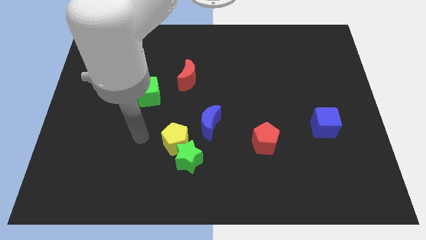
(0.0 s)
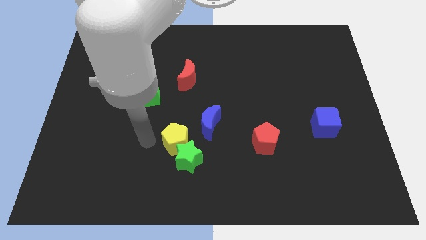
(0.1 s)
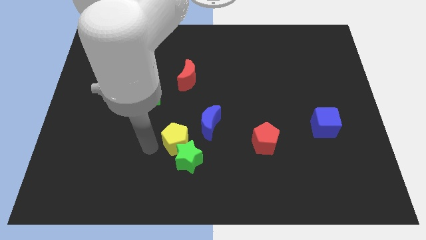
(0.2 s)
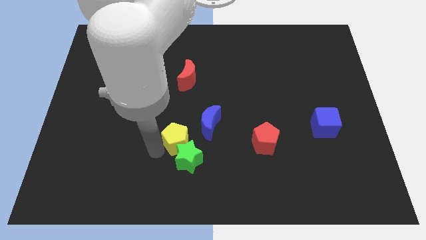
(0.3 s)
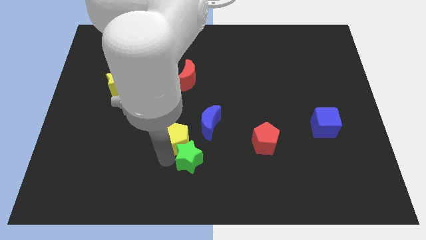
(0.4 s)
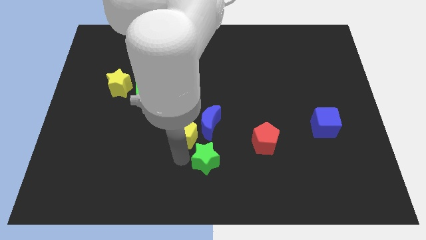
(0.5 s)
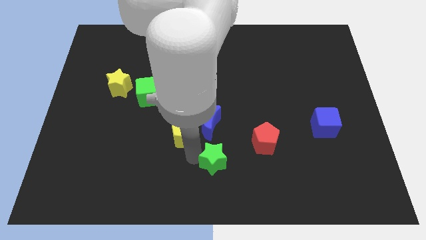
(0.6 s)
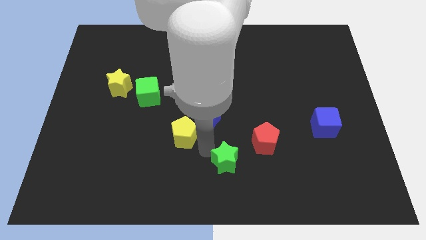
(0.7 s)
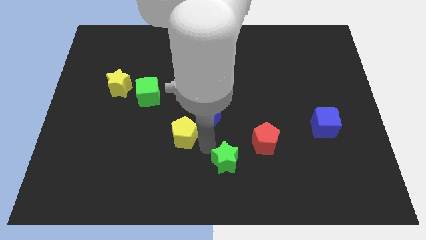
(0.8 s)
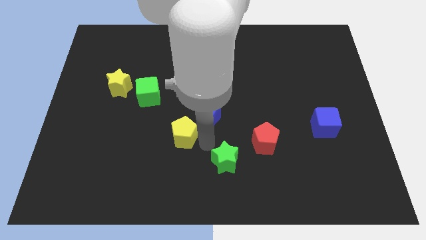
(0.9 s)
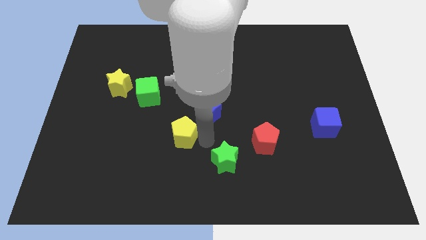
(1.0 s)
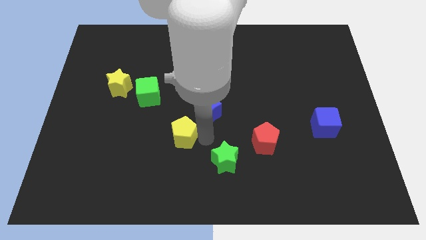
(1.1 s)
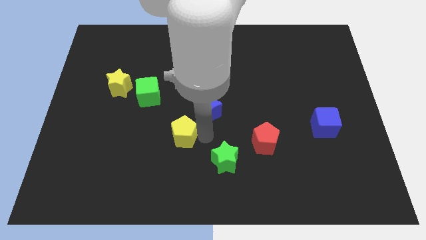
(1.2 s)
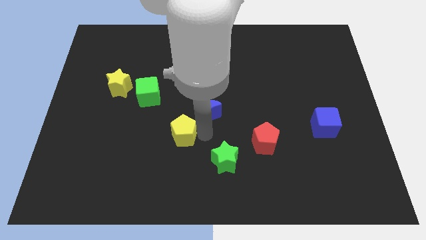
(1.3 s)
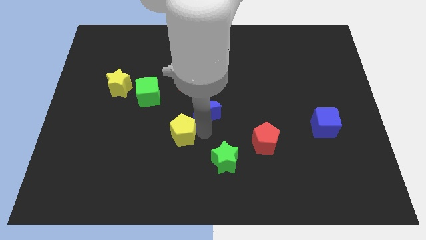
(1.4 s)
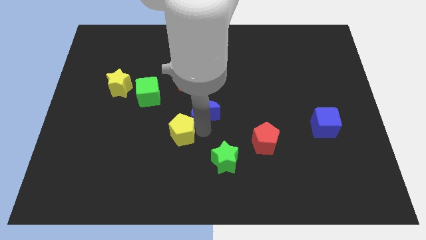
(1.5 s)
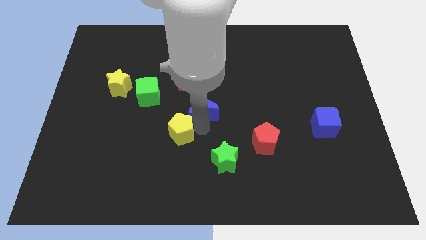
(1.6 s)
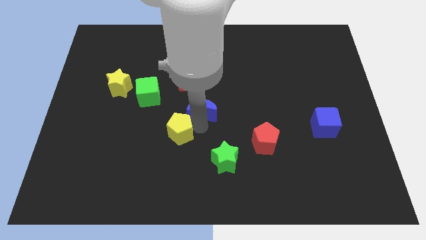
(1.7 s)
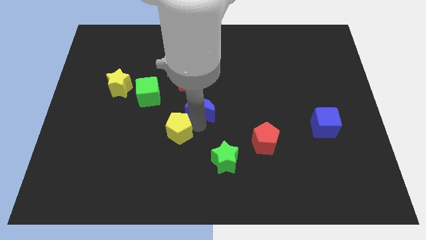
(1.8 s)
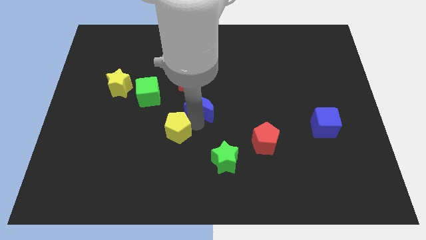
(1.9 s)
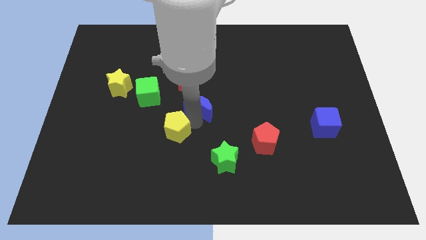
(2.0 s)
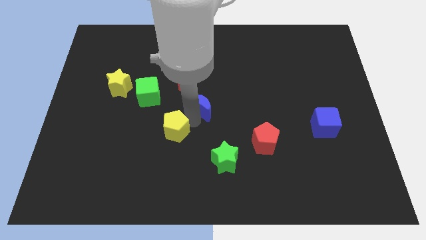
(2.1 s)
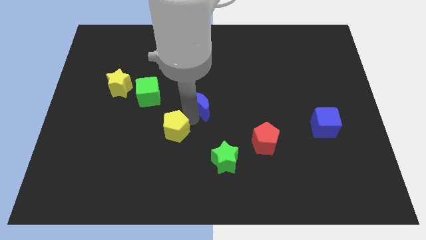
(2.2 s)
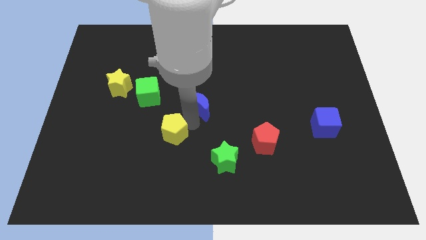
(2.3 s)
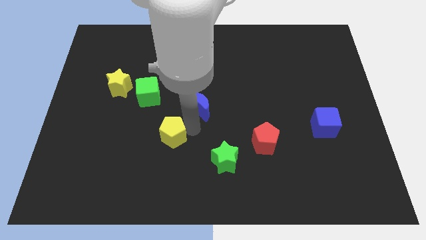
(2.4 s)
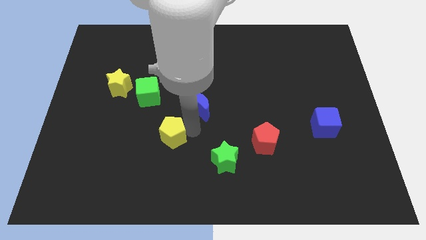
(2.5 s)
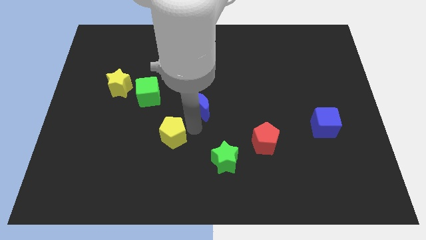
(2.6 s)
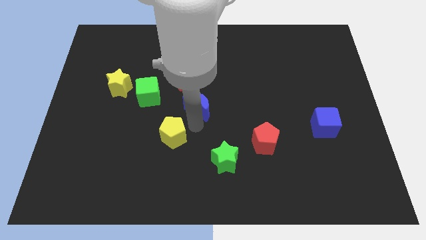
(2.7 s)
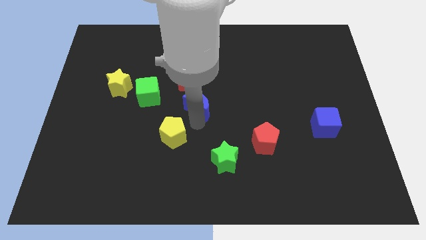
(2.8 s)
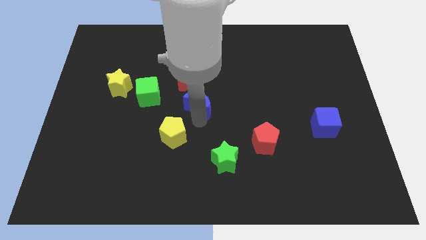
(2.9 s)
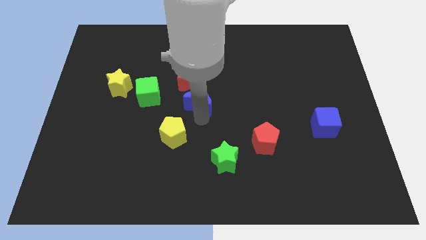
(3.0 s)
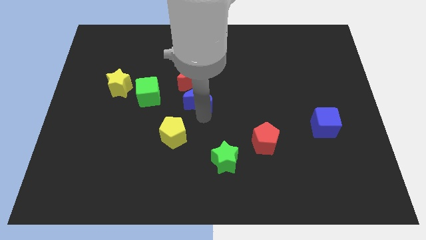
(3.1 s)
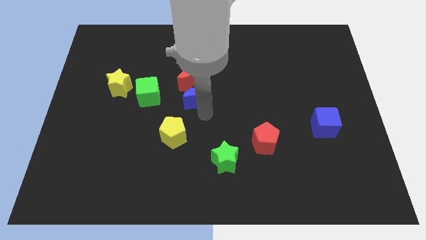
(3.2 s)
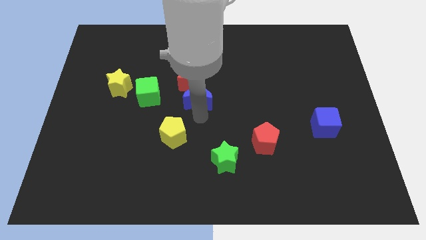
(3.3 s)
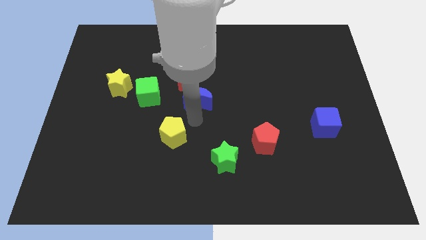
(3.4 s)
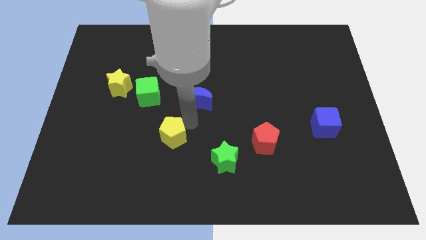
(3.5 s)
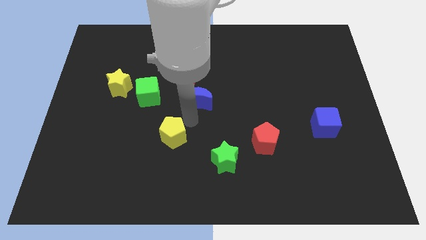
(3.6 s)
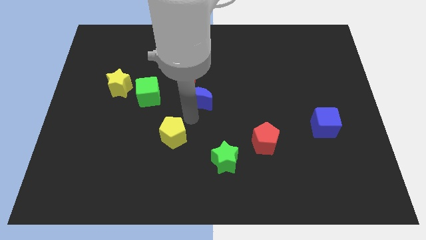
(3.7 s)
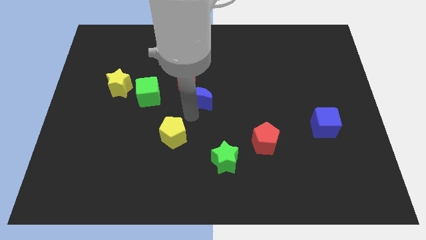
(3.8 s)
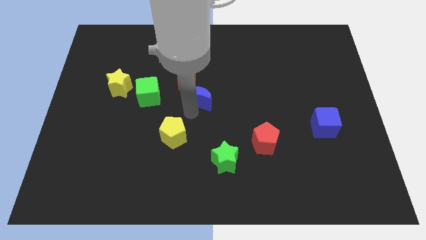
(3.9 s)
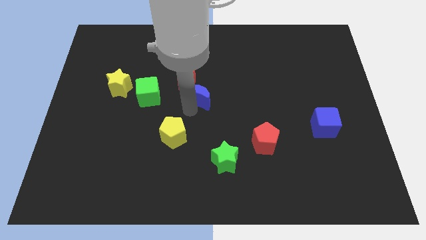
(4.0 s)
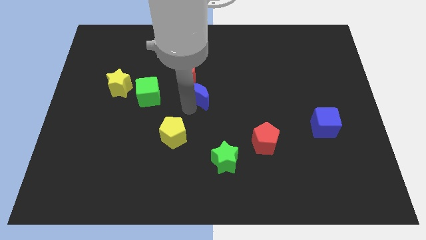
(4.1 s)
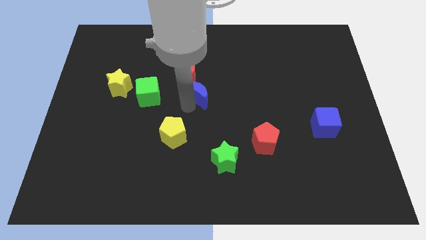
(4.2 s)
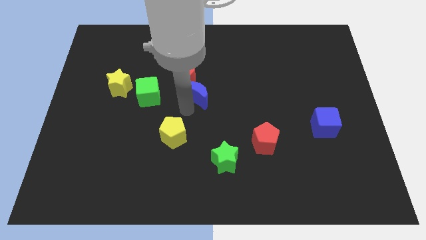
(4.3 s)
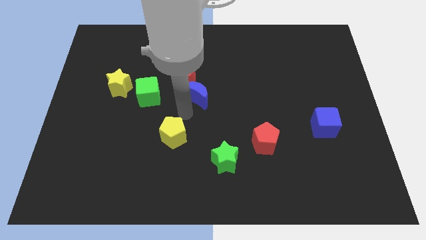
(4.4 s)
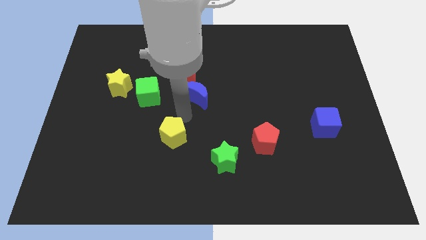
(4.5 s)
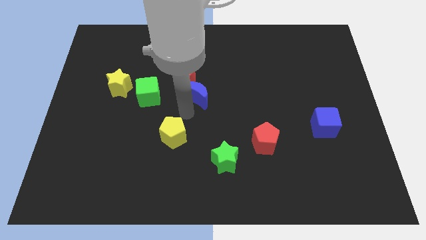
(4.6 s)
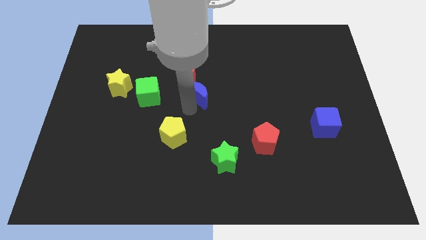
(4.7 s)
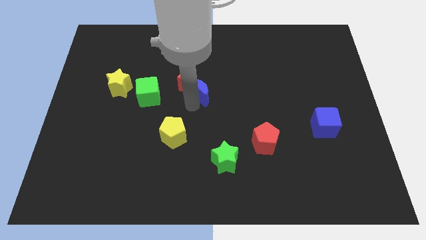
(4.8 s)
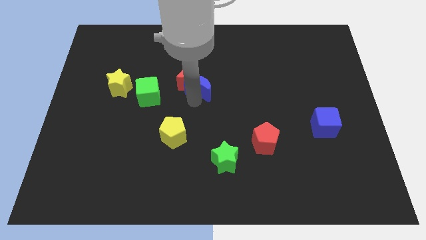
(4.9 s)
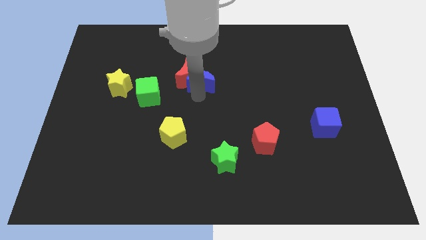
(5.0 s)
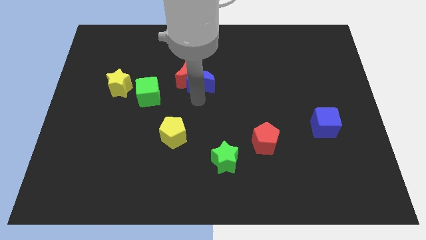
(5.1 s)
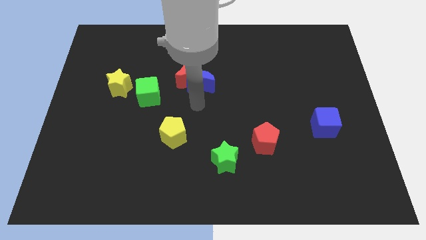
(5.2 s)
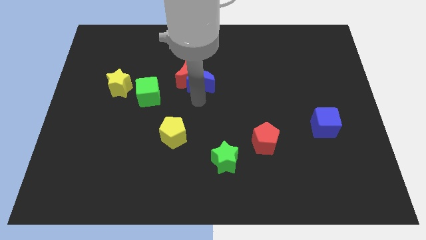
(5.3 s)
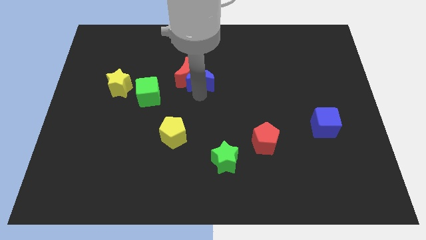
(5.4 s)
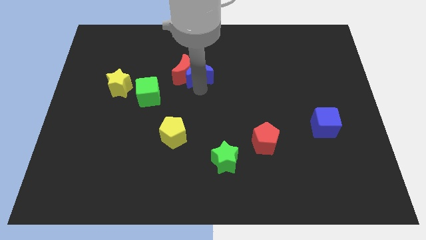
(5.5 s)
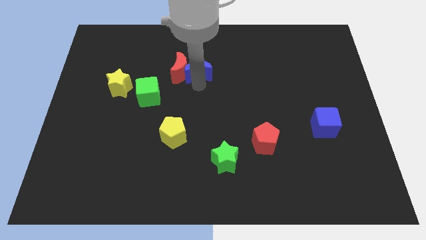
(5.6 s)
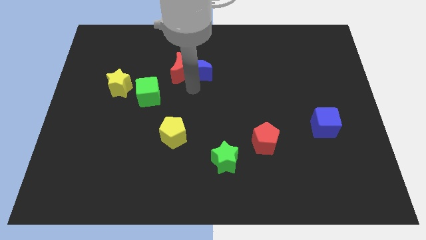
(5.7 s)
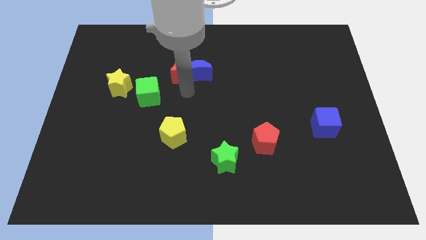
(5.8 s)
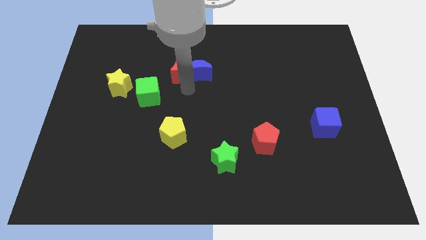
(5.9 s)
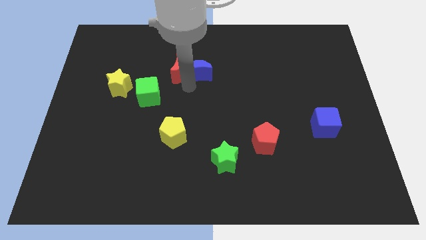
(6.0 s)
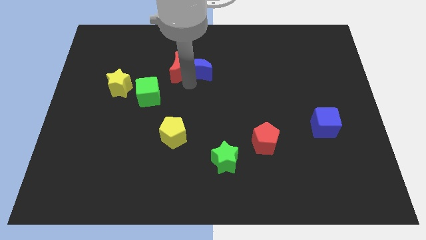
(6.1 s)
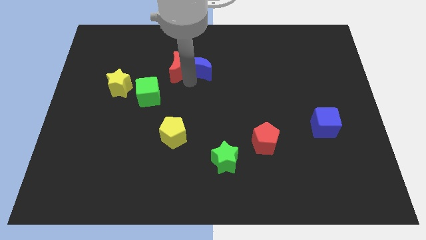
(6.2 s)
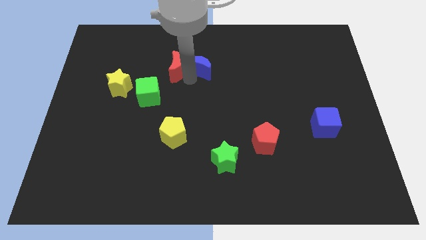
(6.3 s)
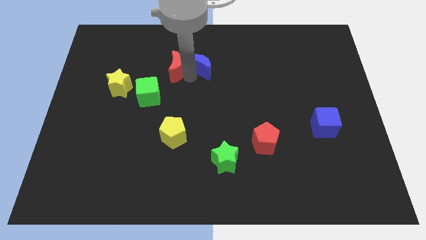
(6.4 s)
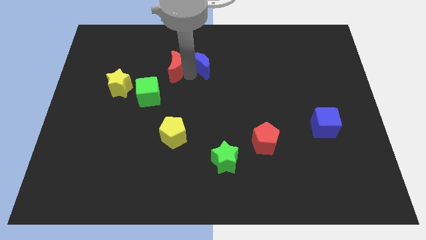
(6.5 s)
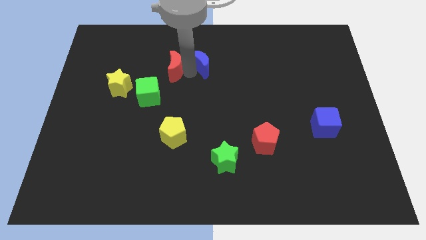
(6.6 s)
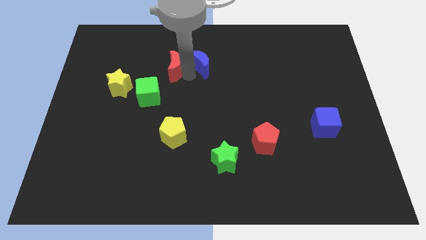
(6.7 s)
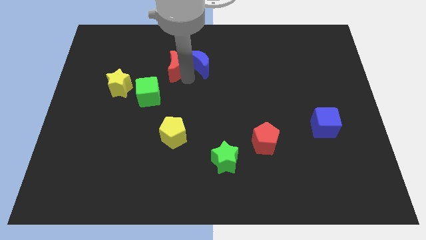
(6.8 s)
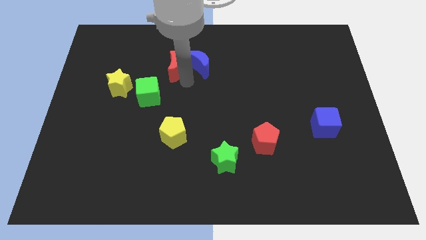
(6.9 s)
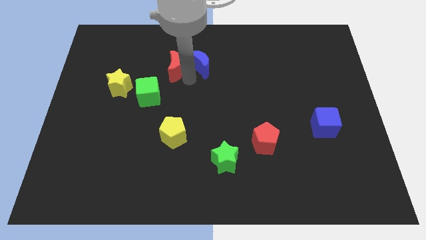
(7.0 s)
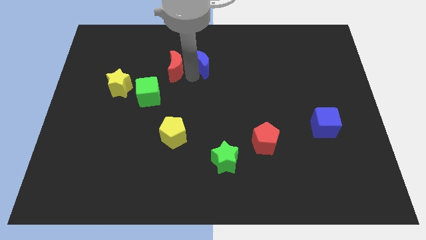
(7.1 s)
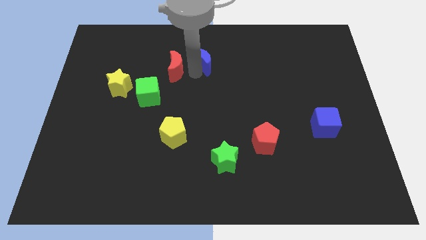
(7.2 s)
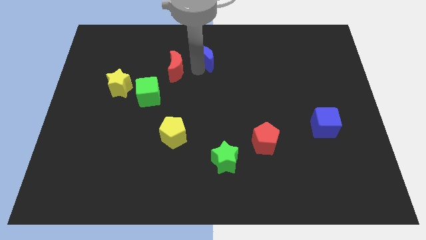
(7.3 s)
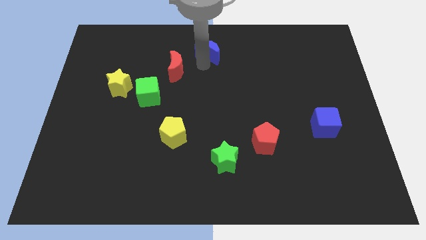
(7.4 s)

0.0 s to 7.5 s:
slide the blue moon to the towards your base
